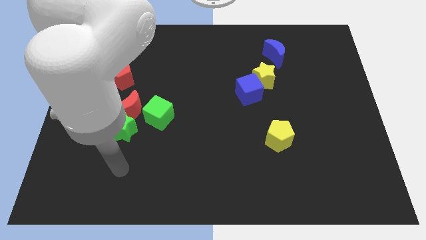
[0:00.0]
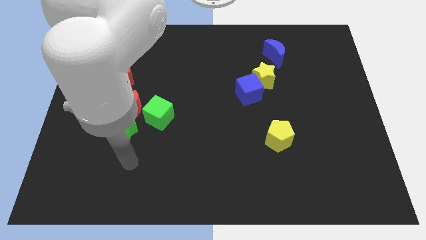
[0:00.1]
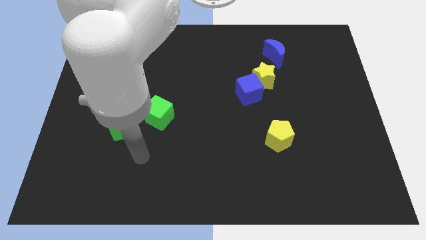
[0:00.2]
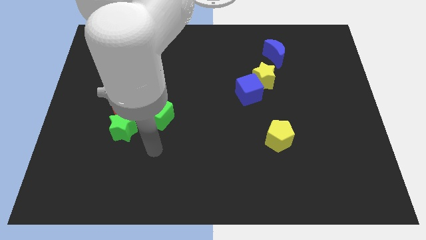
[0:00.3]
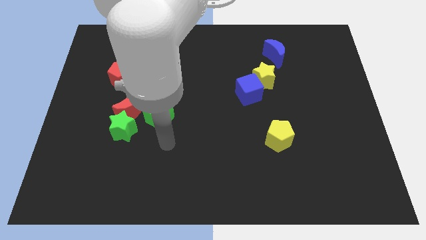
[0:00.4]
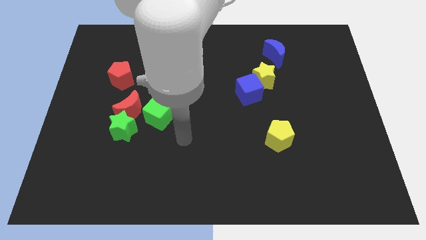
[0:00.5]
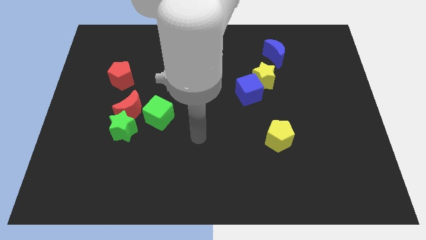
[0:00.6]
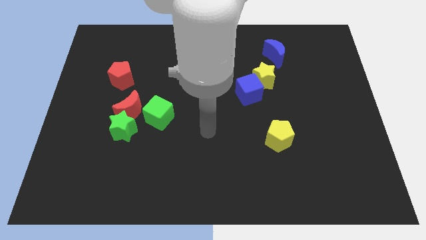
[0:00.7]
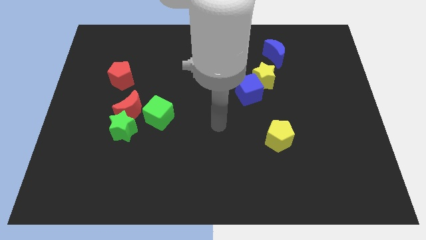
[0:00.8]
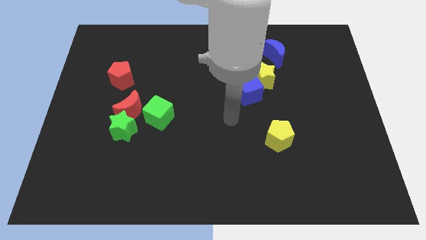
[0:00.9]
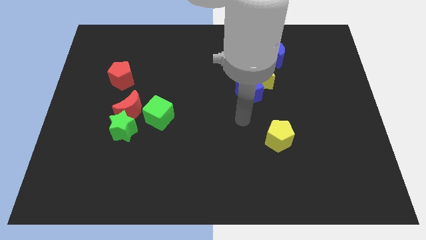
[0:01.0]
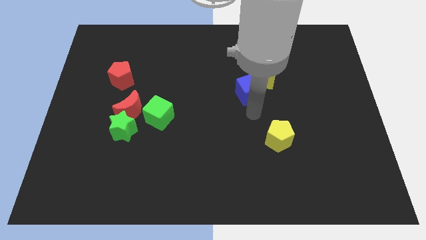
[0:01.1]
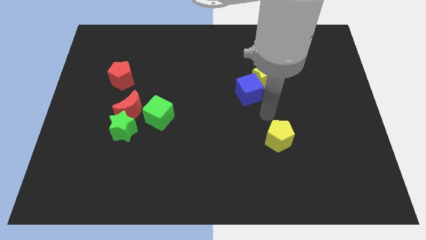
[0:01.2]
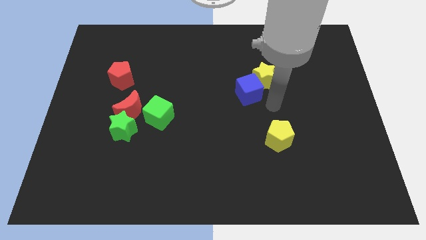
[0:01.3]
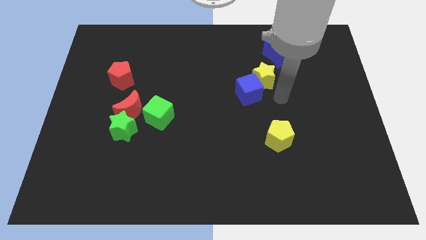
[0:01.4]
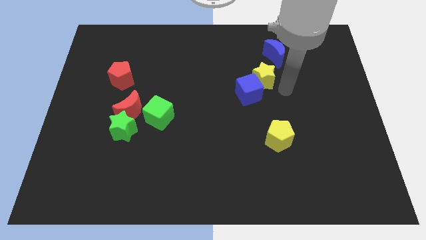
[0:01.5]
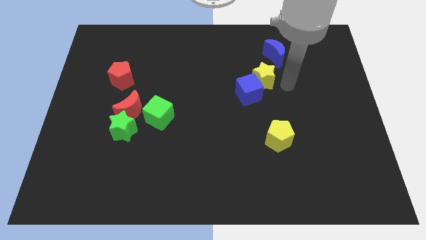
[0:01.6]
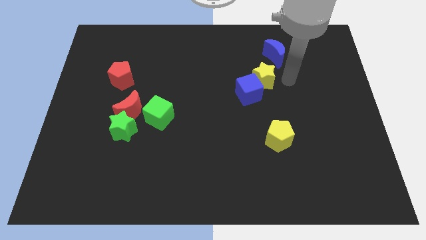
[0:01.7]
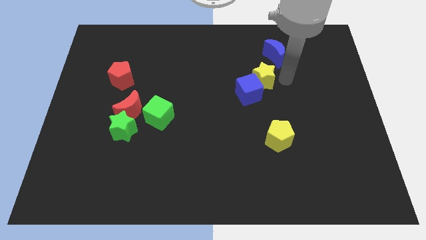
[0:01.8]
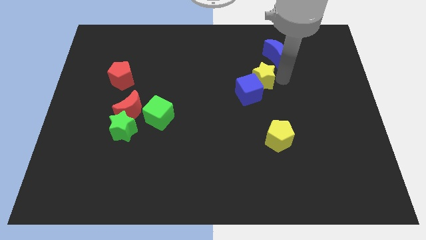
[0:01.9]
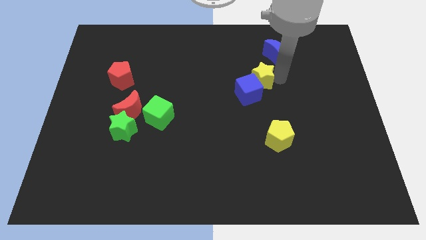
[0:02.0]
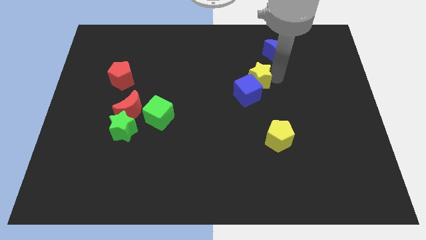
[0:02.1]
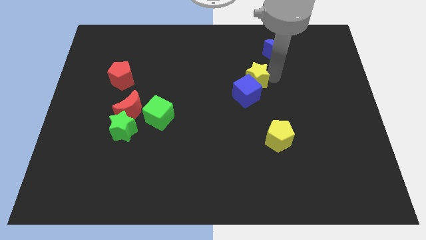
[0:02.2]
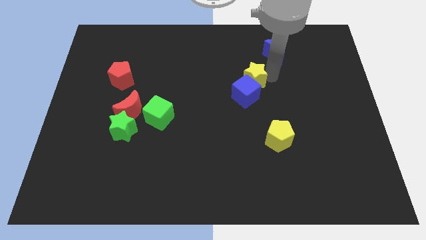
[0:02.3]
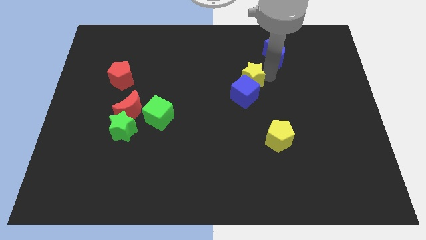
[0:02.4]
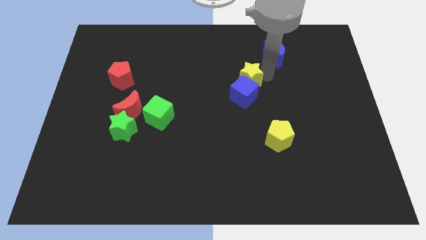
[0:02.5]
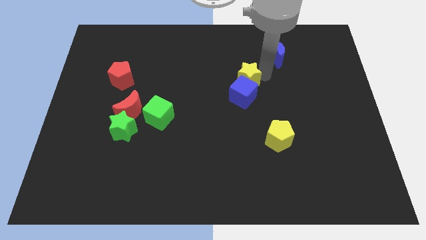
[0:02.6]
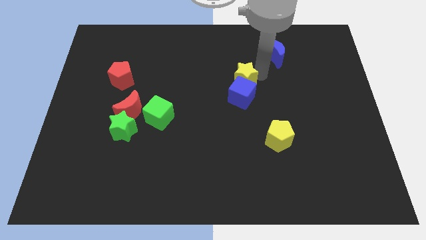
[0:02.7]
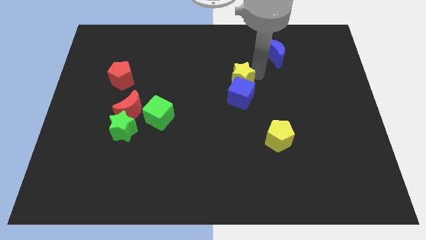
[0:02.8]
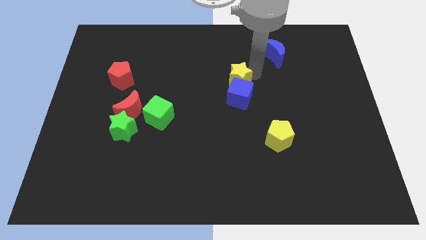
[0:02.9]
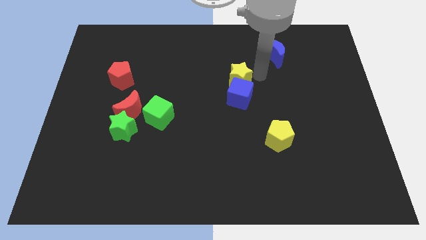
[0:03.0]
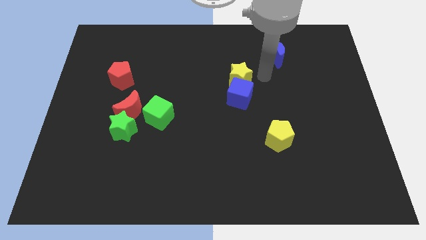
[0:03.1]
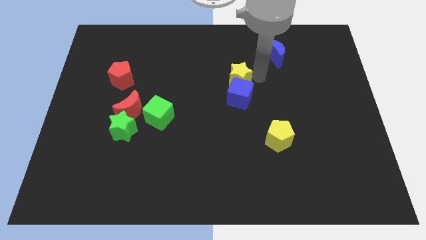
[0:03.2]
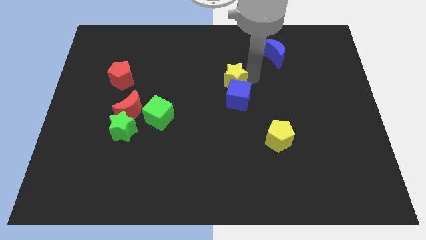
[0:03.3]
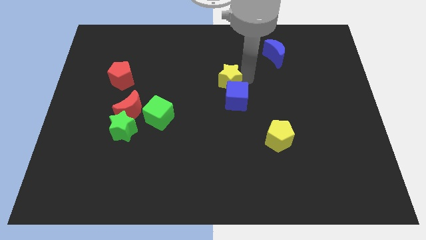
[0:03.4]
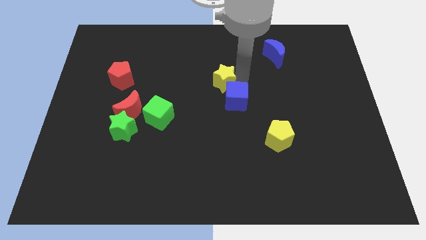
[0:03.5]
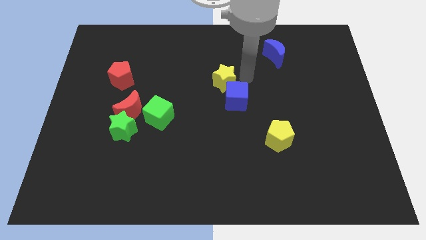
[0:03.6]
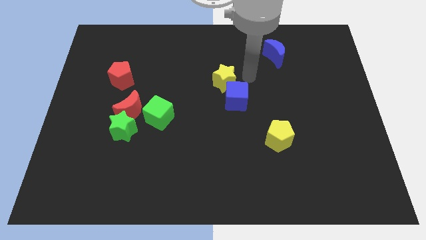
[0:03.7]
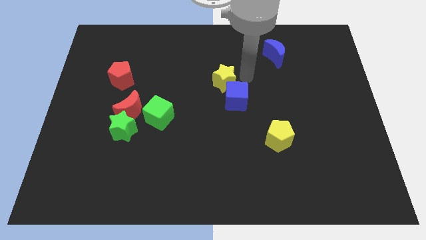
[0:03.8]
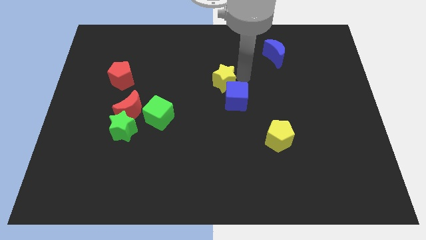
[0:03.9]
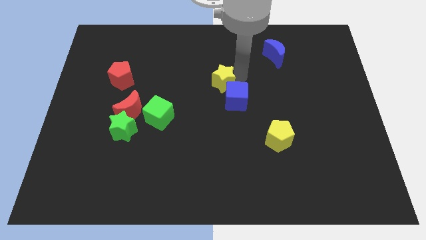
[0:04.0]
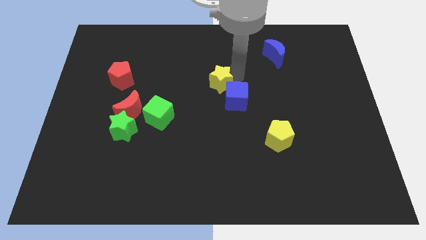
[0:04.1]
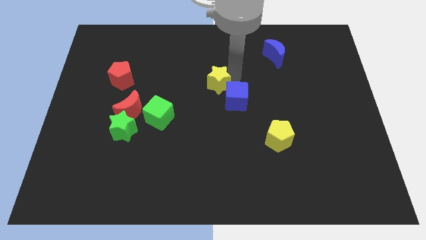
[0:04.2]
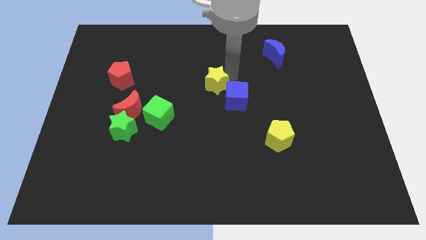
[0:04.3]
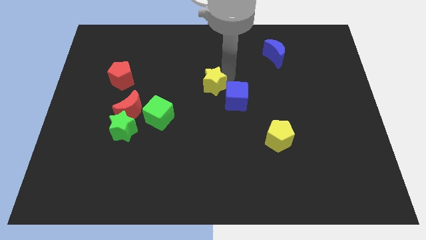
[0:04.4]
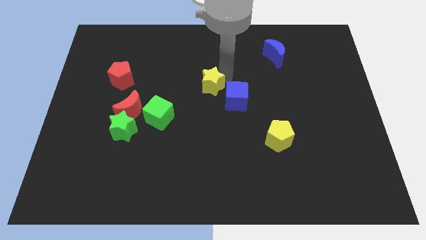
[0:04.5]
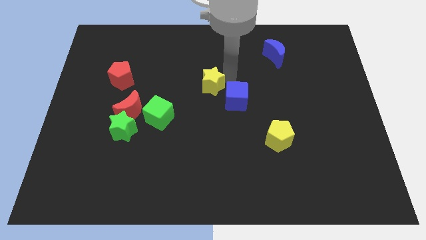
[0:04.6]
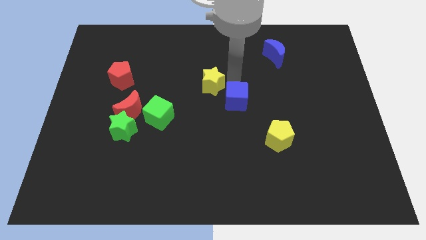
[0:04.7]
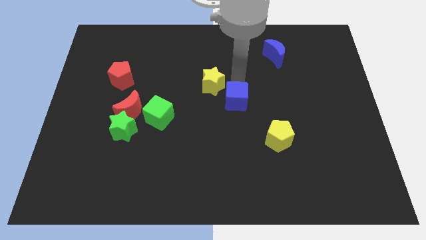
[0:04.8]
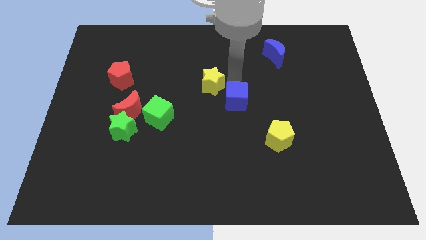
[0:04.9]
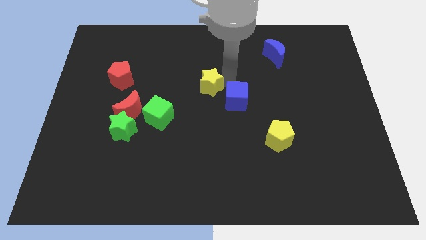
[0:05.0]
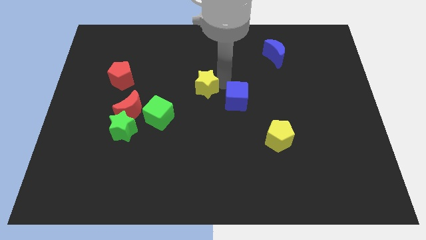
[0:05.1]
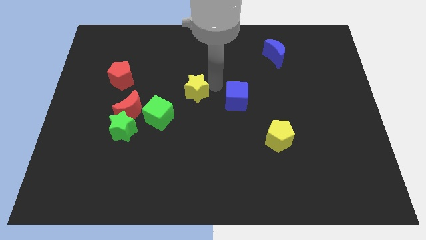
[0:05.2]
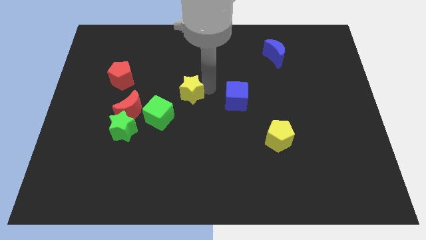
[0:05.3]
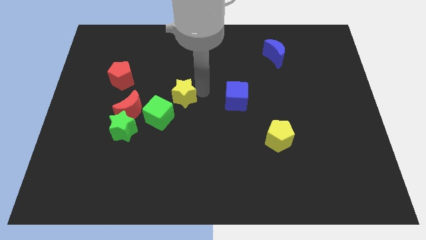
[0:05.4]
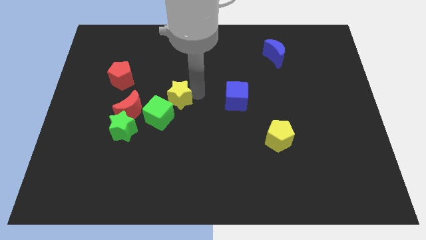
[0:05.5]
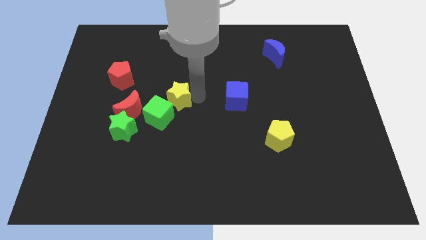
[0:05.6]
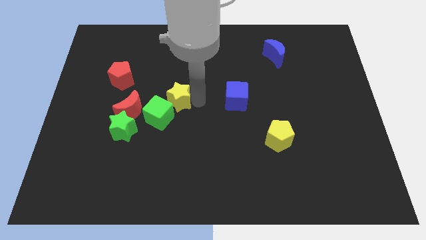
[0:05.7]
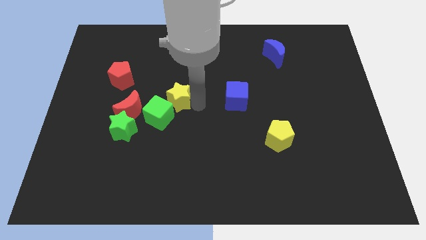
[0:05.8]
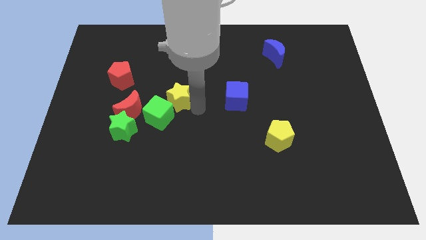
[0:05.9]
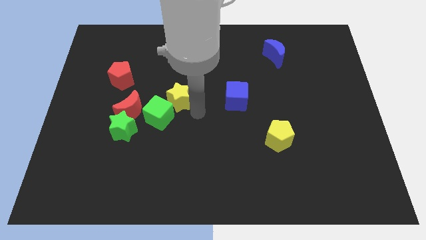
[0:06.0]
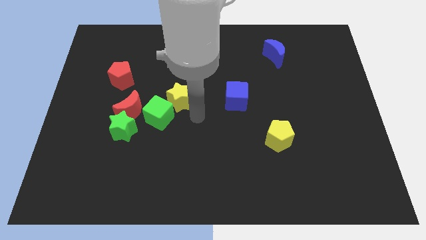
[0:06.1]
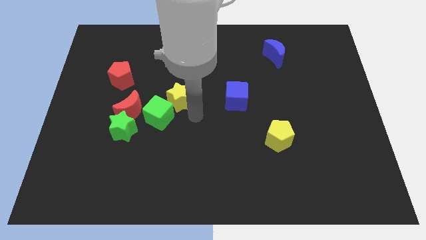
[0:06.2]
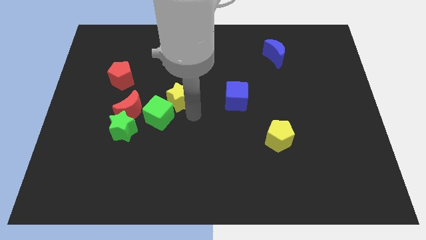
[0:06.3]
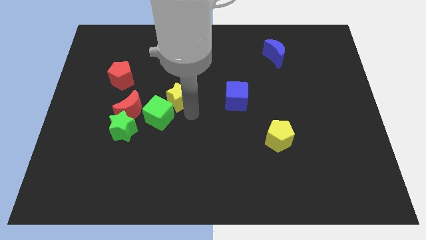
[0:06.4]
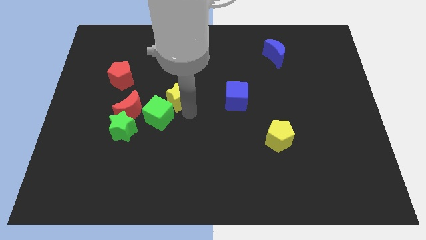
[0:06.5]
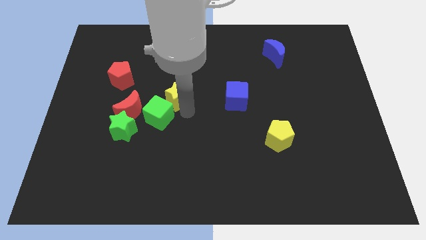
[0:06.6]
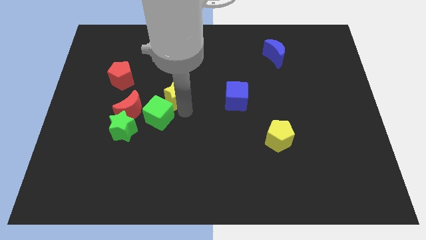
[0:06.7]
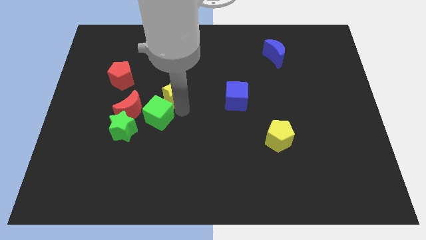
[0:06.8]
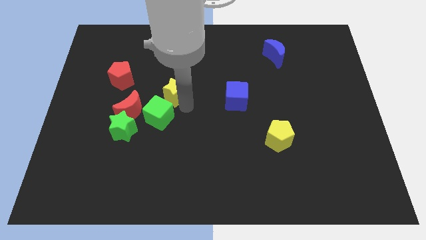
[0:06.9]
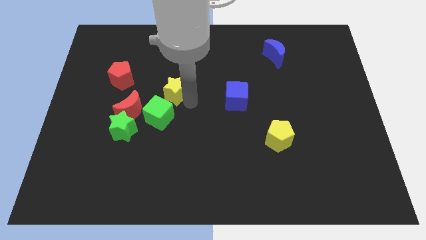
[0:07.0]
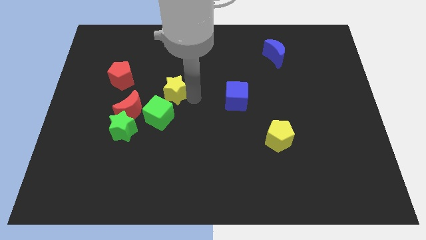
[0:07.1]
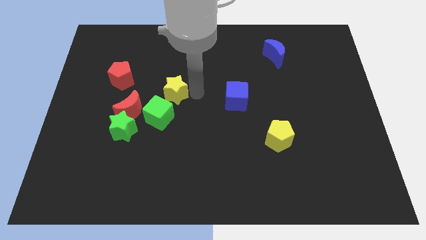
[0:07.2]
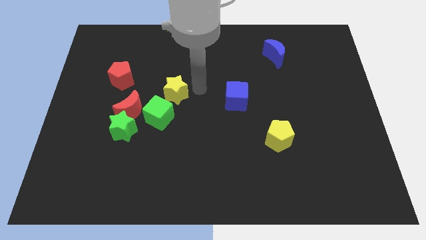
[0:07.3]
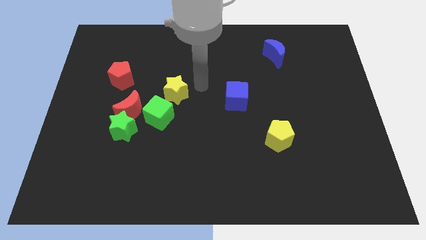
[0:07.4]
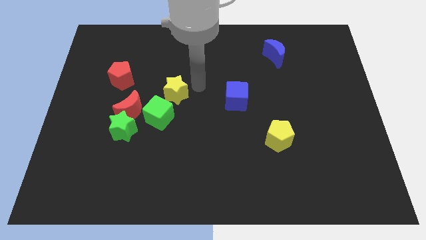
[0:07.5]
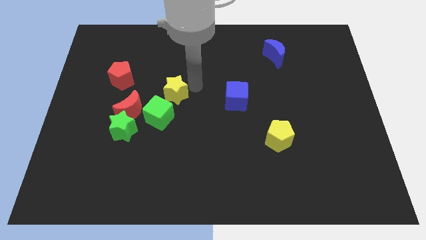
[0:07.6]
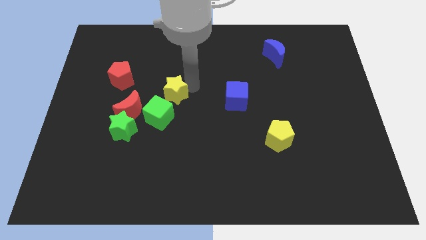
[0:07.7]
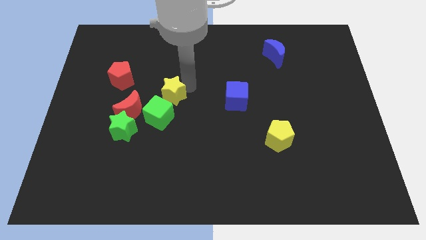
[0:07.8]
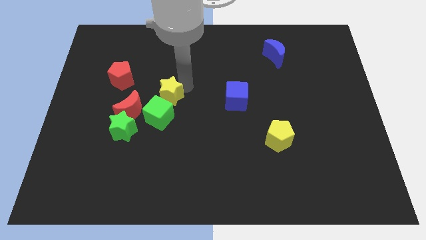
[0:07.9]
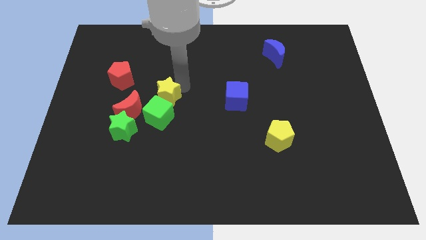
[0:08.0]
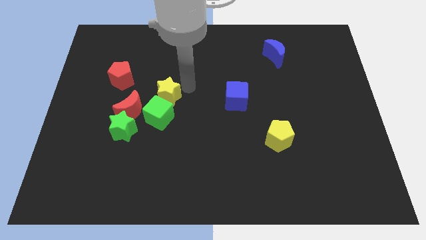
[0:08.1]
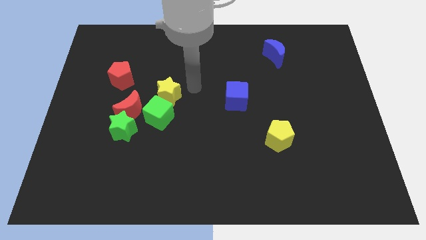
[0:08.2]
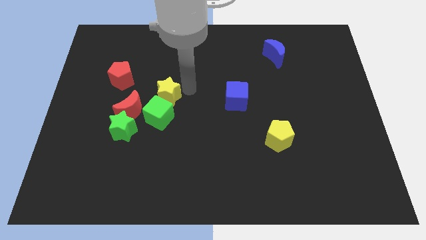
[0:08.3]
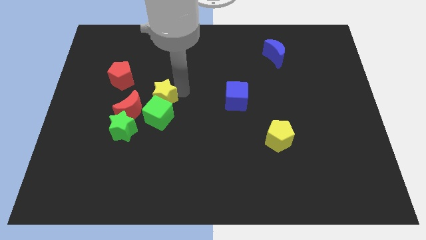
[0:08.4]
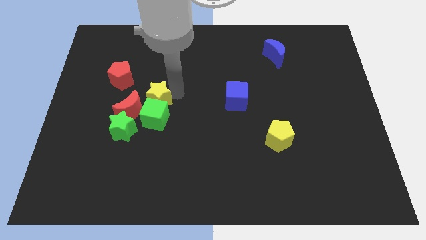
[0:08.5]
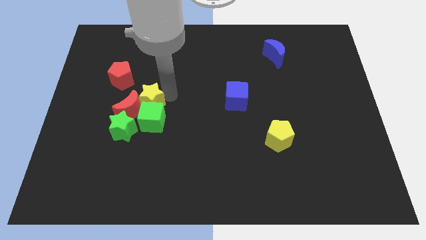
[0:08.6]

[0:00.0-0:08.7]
push the yellow star towards the red moon
